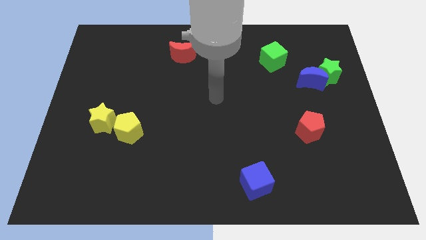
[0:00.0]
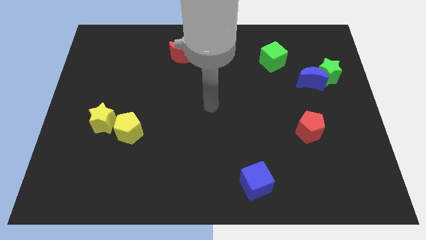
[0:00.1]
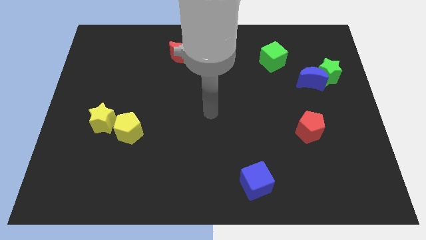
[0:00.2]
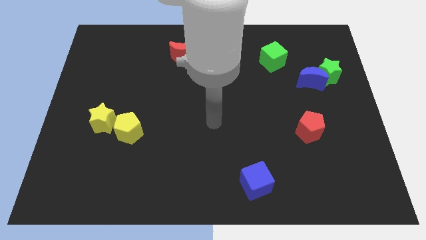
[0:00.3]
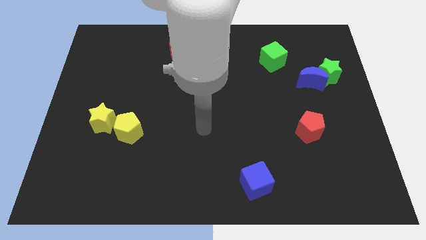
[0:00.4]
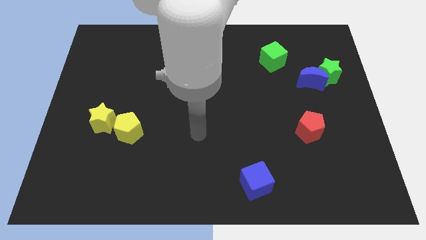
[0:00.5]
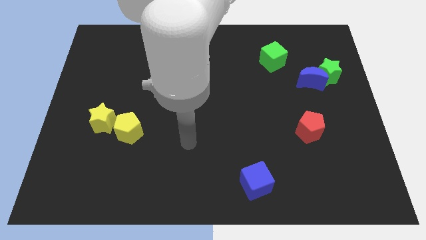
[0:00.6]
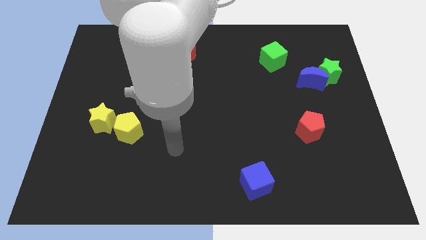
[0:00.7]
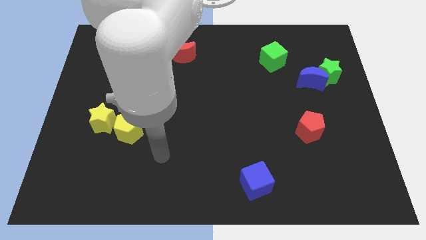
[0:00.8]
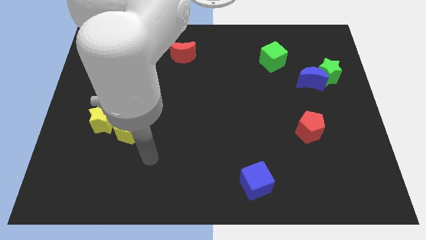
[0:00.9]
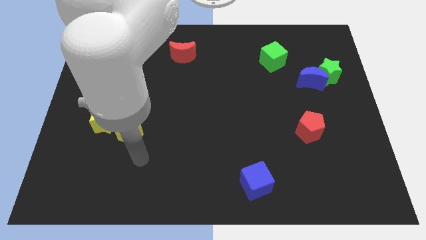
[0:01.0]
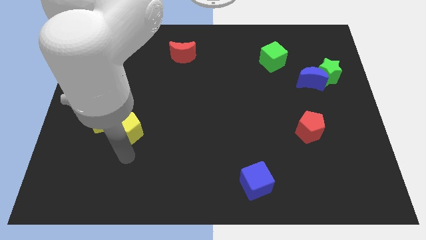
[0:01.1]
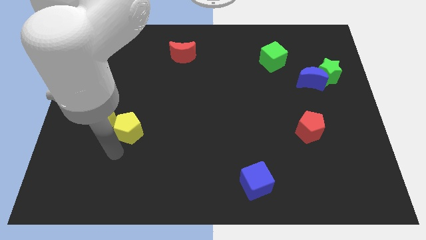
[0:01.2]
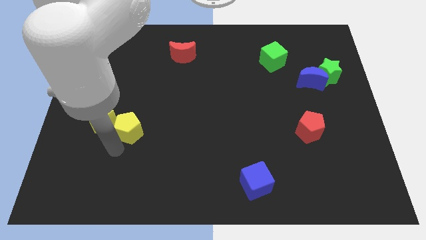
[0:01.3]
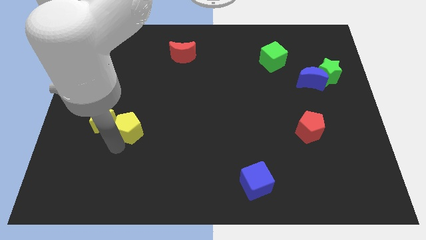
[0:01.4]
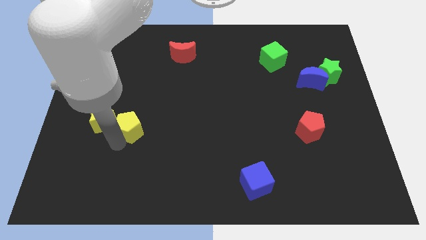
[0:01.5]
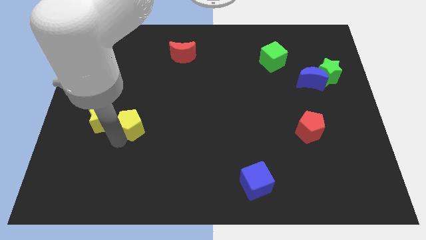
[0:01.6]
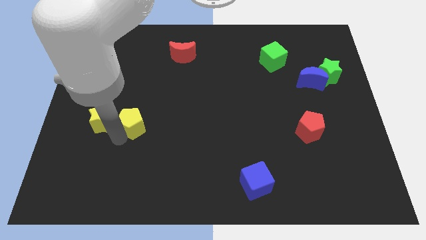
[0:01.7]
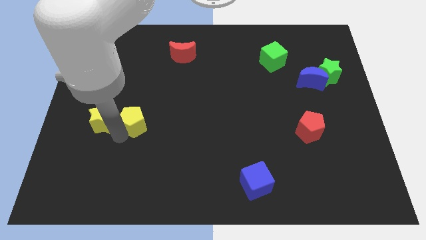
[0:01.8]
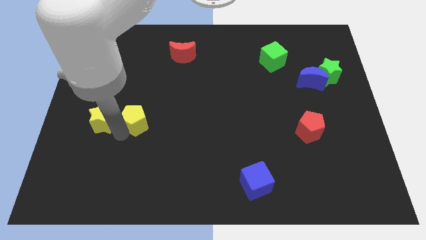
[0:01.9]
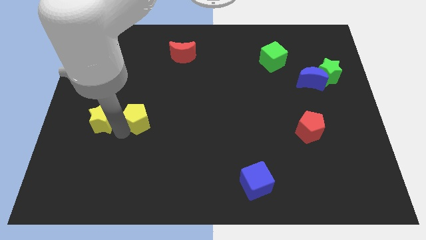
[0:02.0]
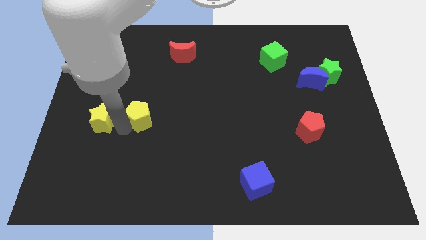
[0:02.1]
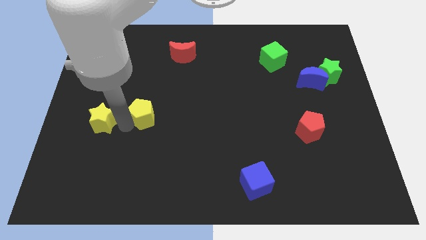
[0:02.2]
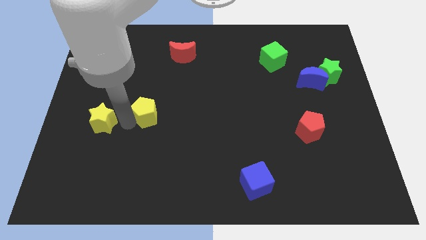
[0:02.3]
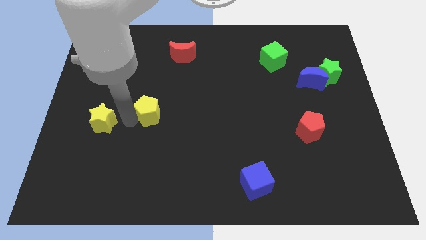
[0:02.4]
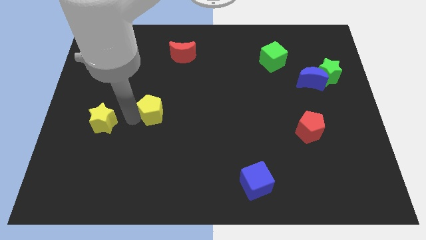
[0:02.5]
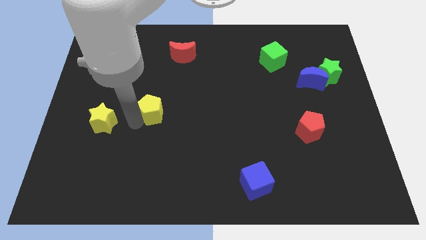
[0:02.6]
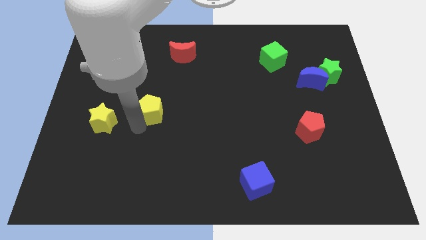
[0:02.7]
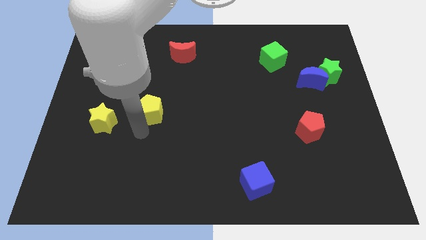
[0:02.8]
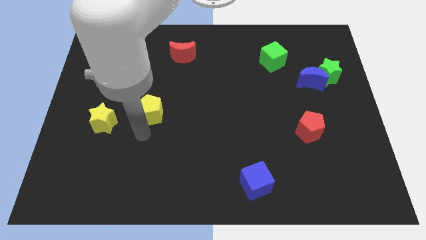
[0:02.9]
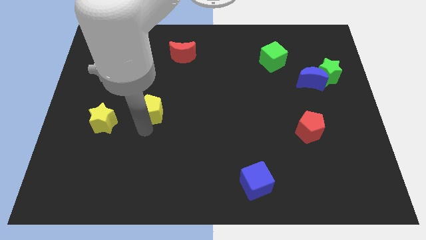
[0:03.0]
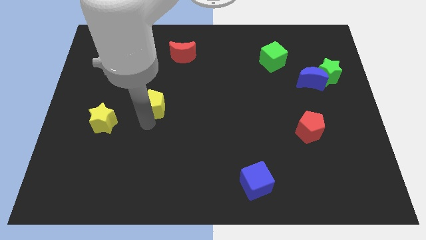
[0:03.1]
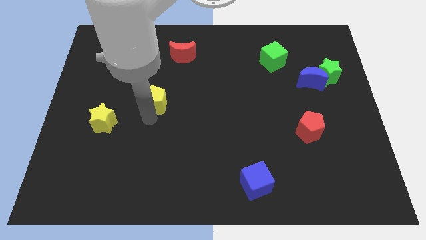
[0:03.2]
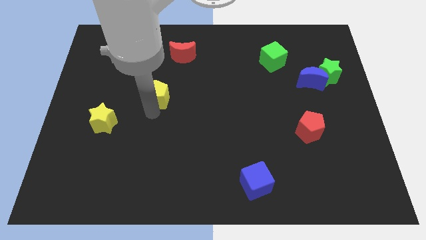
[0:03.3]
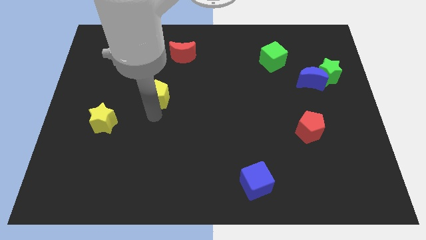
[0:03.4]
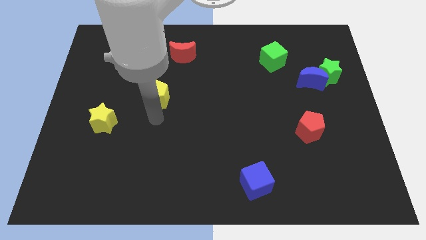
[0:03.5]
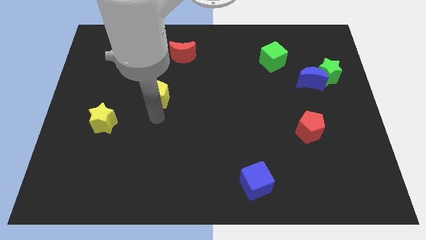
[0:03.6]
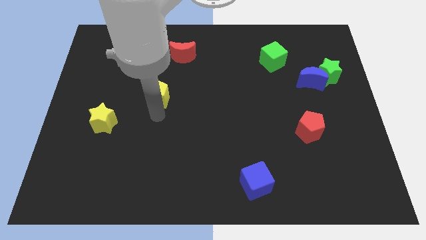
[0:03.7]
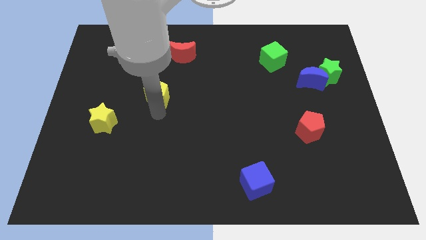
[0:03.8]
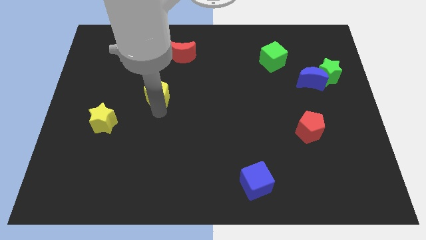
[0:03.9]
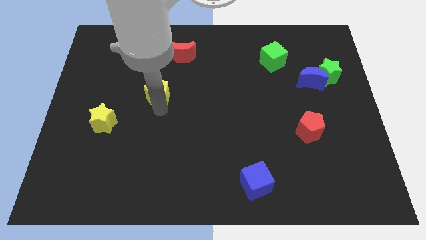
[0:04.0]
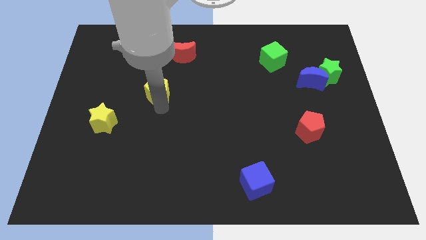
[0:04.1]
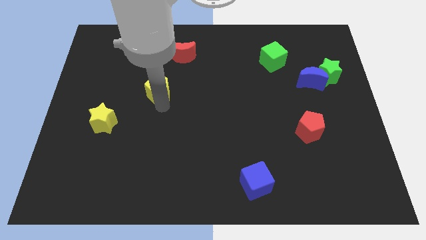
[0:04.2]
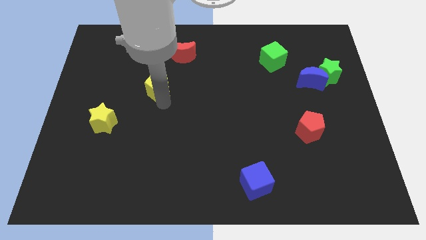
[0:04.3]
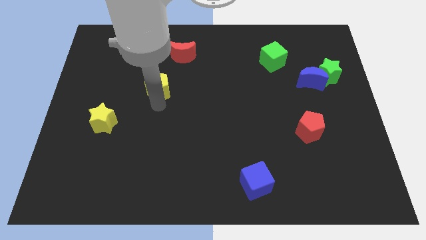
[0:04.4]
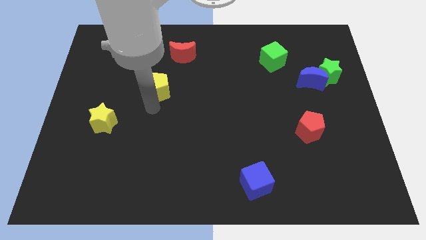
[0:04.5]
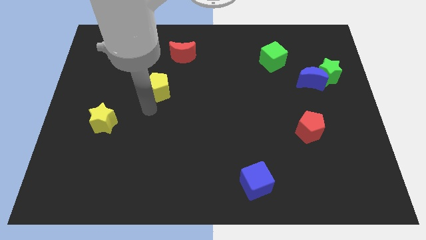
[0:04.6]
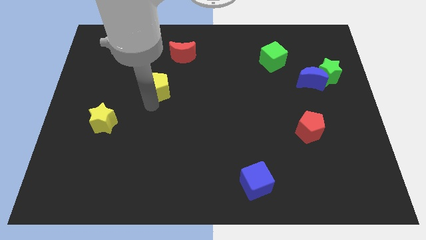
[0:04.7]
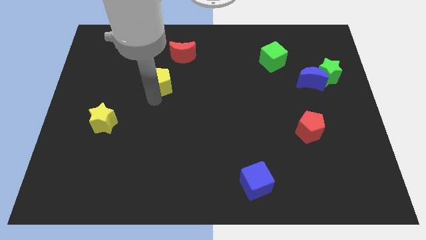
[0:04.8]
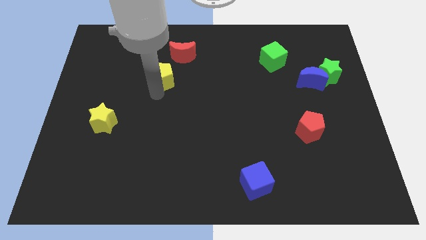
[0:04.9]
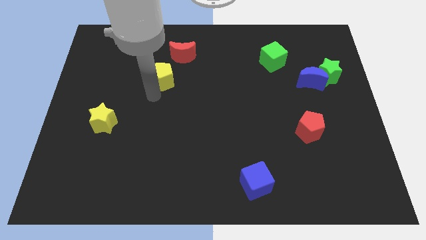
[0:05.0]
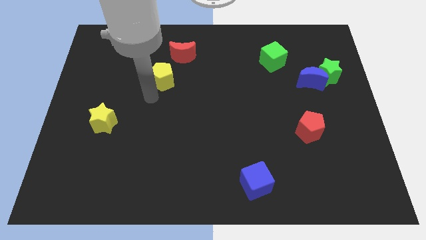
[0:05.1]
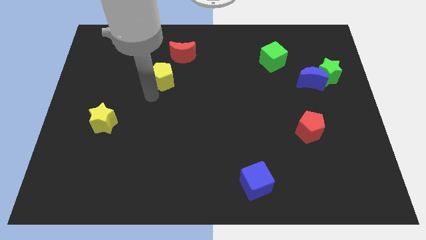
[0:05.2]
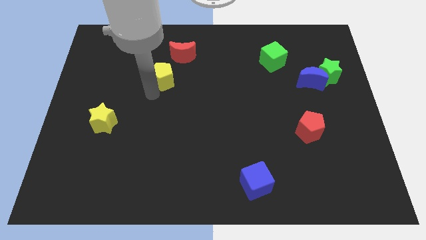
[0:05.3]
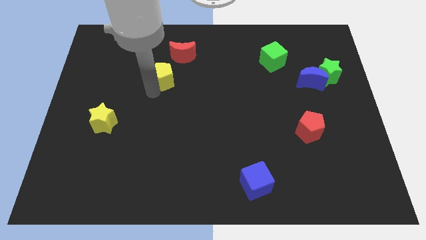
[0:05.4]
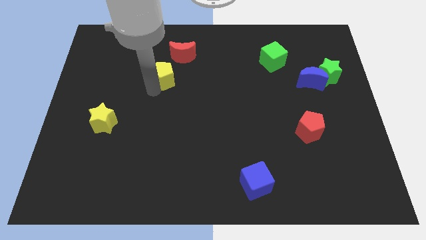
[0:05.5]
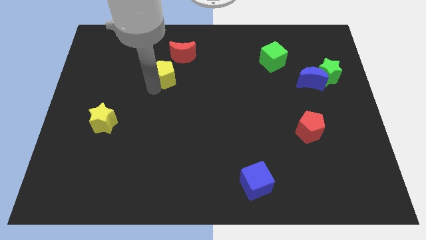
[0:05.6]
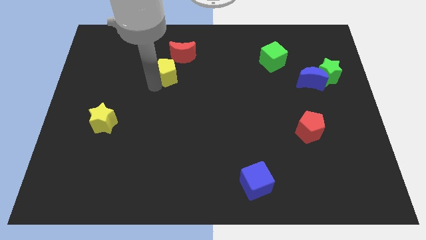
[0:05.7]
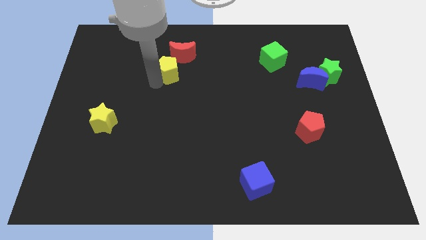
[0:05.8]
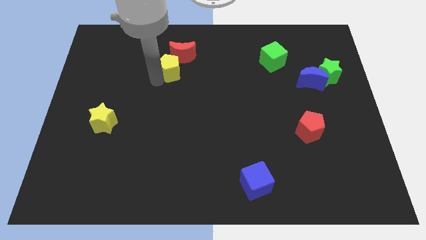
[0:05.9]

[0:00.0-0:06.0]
move the yellow pentagon next to the red moon
